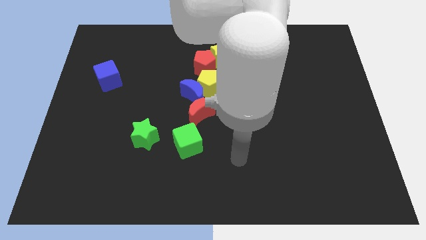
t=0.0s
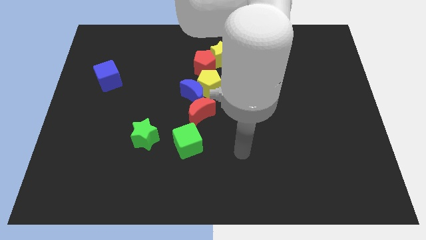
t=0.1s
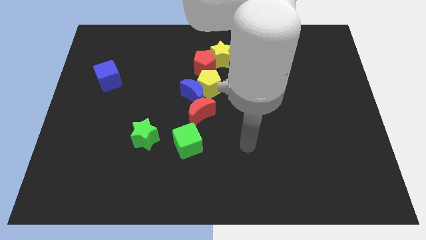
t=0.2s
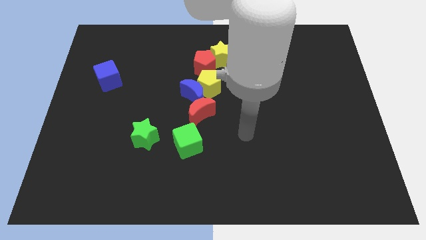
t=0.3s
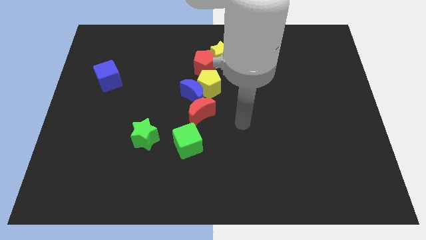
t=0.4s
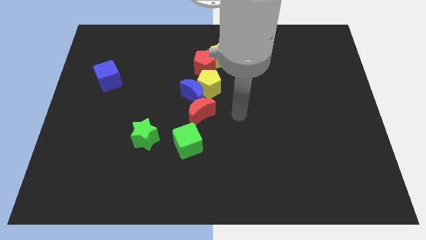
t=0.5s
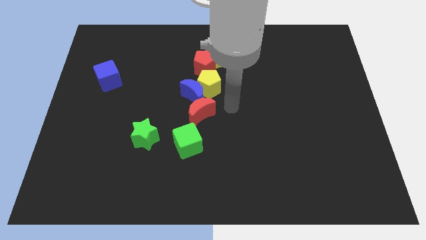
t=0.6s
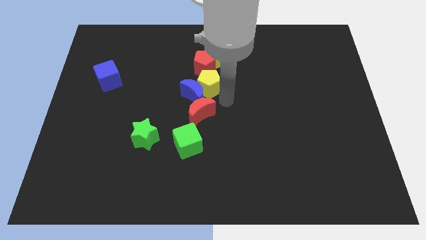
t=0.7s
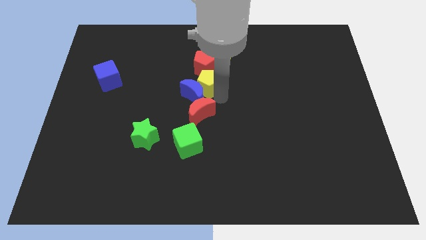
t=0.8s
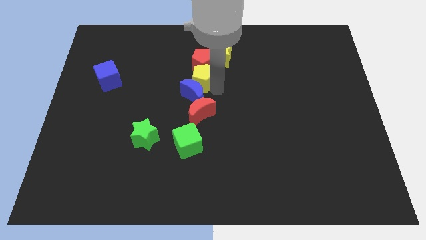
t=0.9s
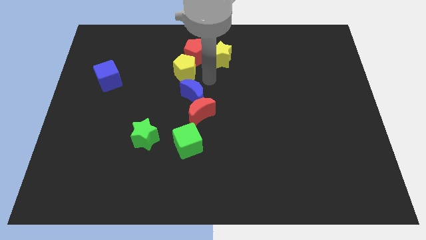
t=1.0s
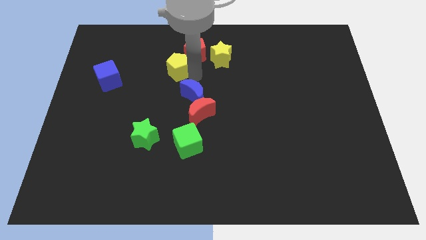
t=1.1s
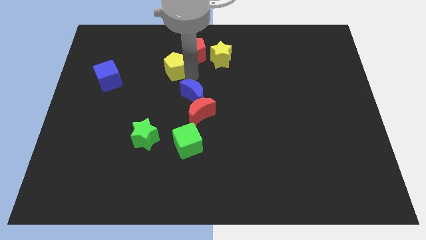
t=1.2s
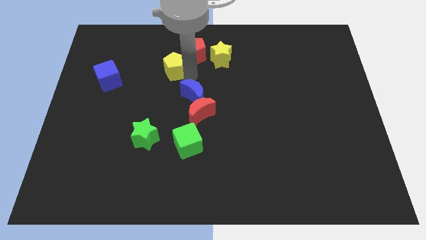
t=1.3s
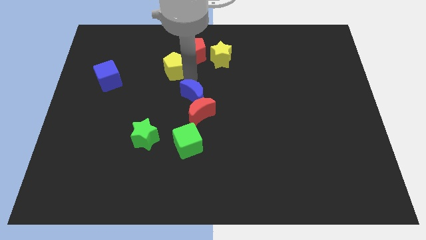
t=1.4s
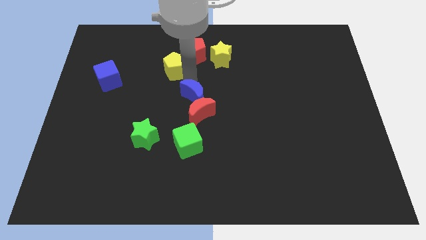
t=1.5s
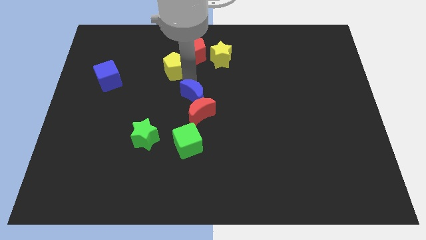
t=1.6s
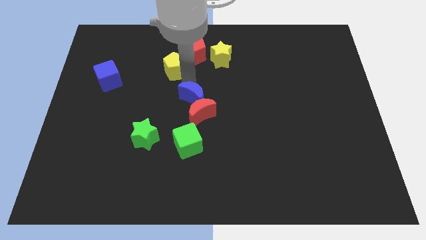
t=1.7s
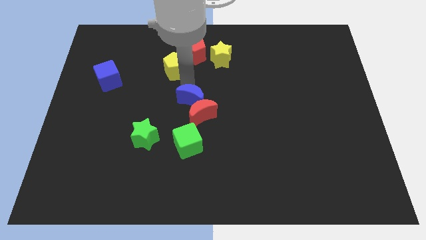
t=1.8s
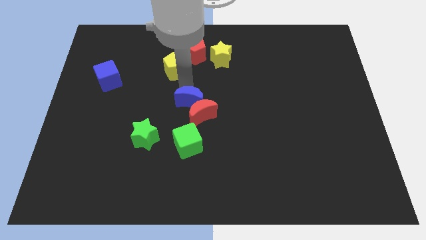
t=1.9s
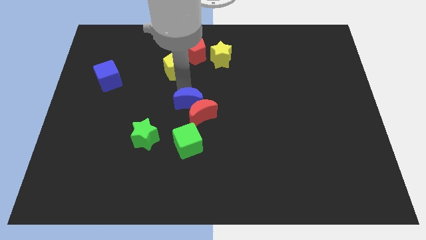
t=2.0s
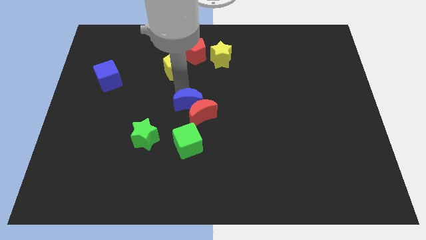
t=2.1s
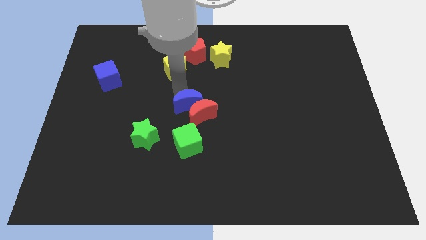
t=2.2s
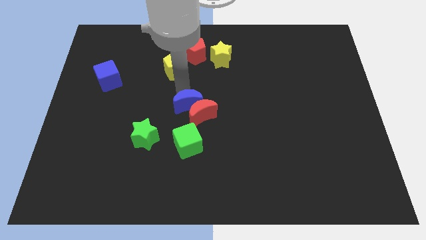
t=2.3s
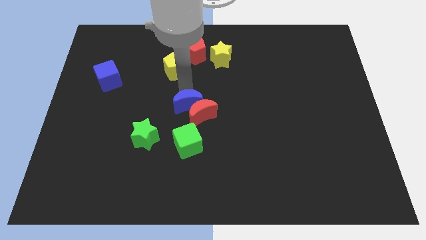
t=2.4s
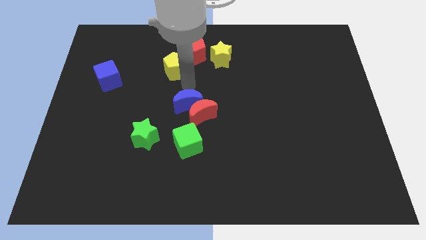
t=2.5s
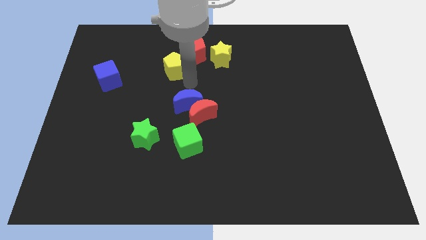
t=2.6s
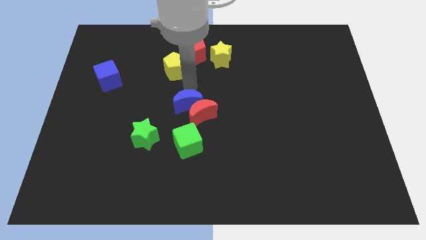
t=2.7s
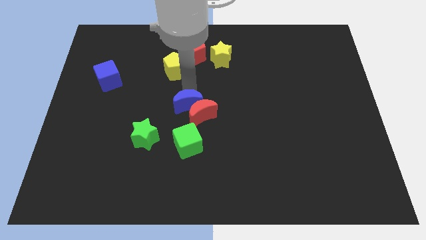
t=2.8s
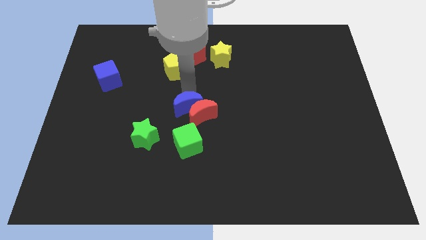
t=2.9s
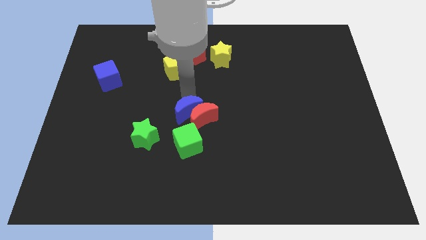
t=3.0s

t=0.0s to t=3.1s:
pull the blue moon apart from the clump

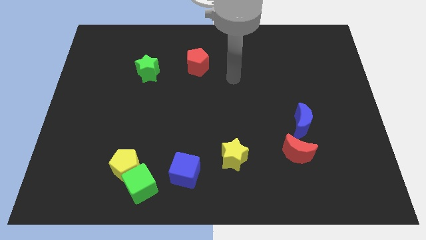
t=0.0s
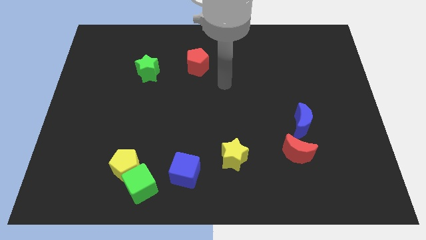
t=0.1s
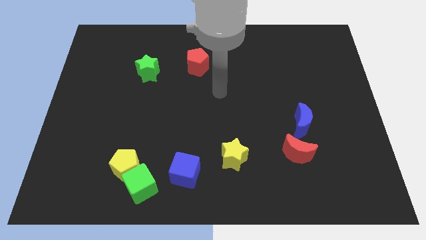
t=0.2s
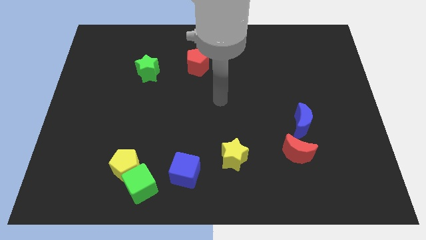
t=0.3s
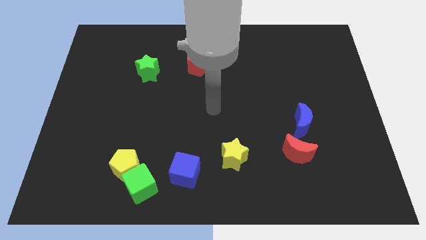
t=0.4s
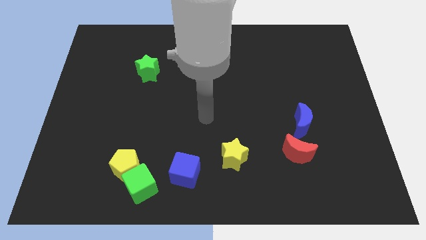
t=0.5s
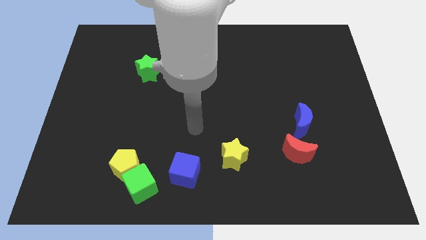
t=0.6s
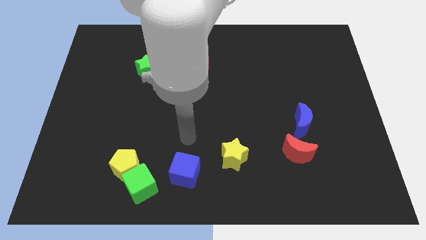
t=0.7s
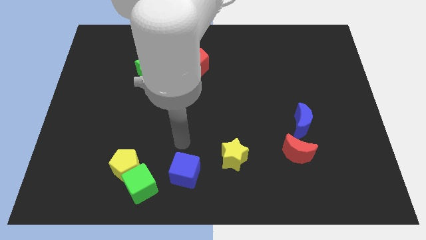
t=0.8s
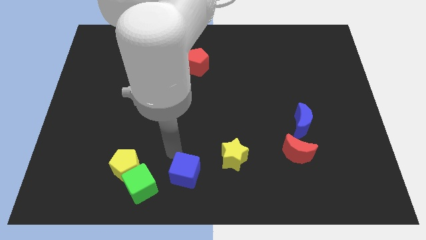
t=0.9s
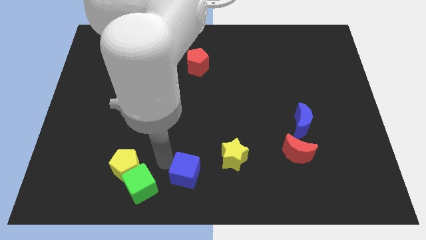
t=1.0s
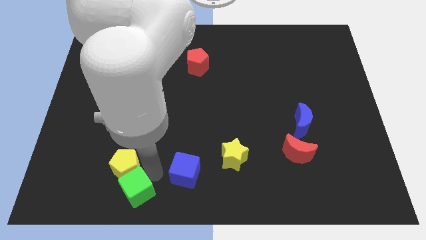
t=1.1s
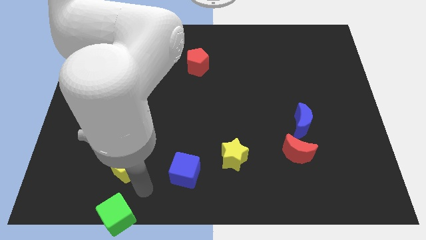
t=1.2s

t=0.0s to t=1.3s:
separate the yellow pentagon from the green cube

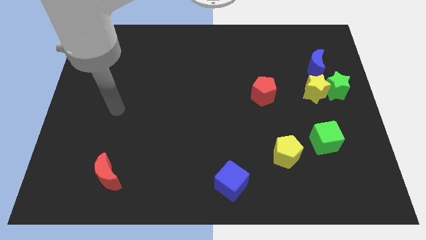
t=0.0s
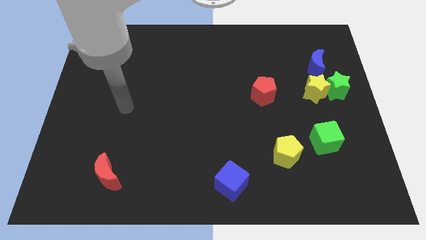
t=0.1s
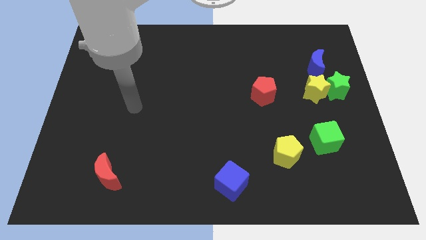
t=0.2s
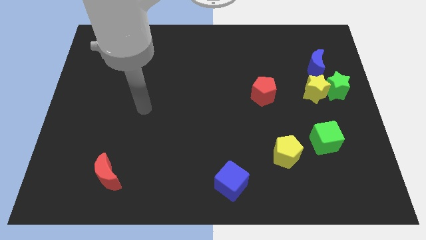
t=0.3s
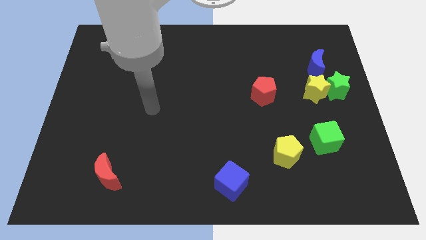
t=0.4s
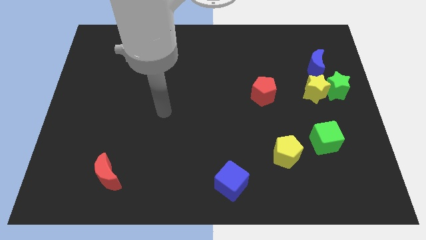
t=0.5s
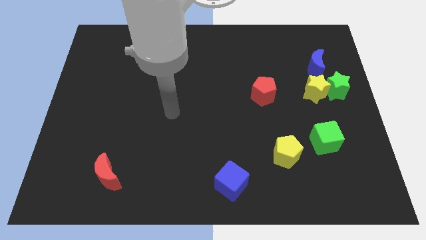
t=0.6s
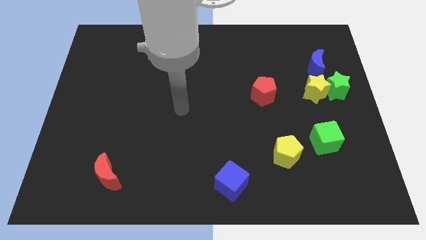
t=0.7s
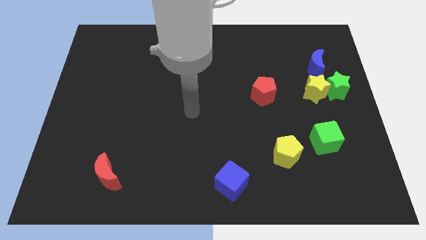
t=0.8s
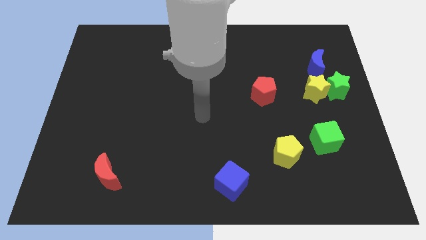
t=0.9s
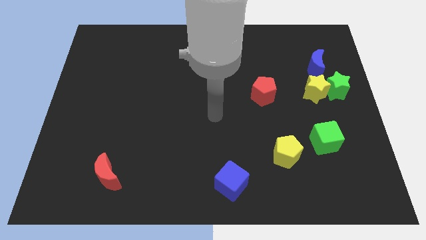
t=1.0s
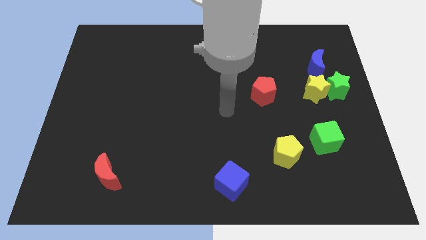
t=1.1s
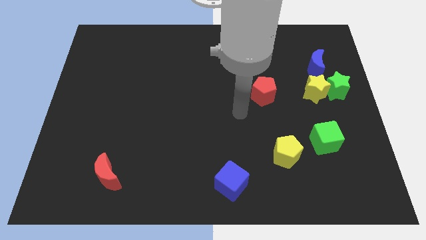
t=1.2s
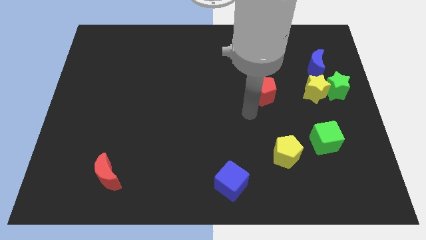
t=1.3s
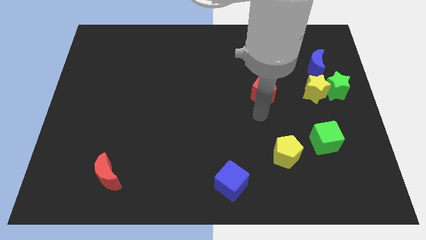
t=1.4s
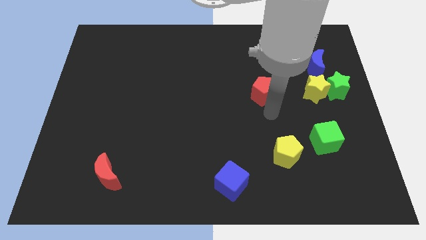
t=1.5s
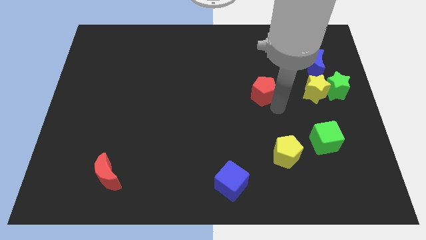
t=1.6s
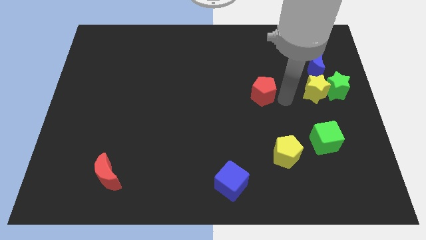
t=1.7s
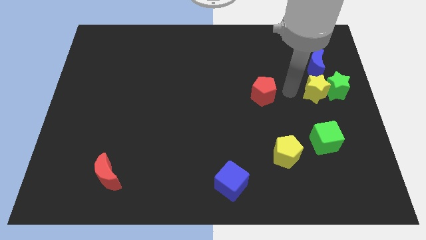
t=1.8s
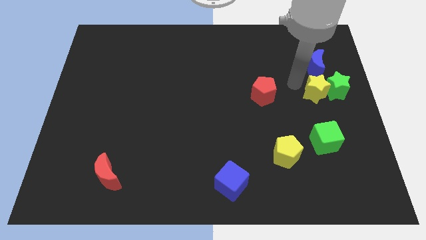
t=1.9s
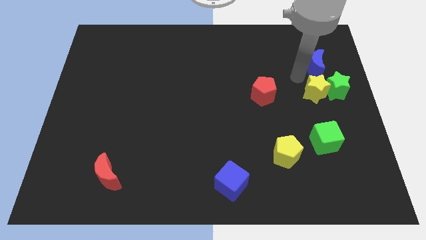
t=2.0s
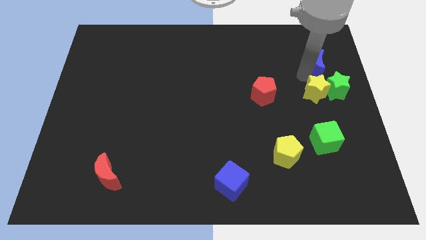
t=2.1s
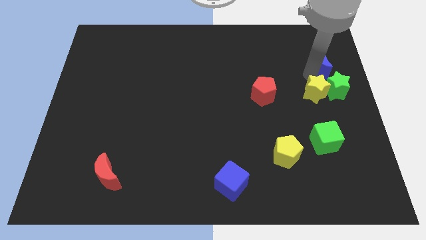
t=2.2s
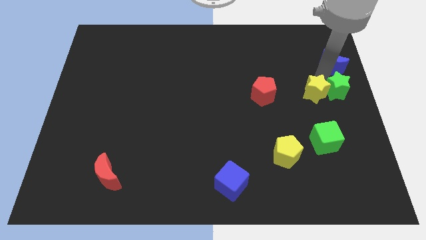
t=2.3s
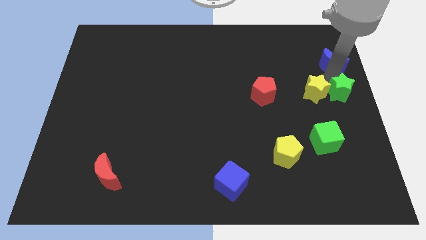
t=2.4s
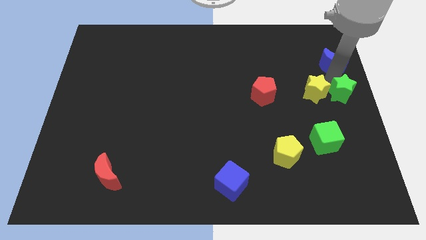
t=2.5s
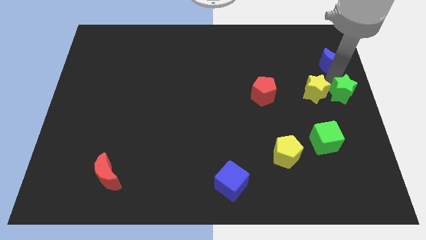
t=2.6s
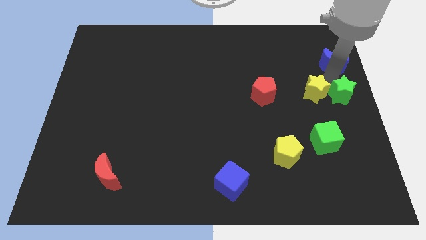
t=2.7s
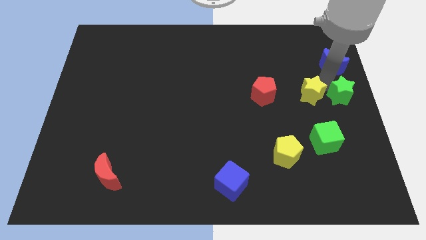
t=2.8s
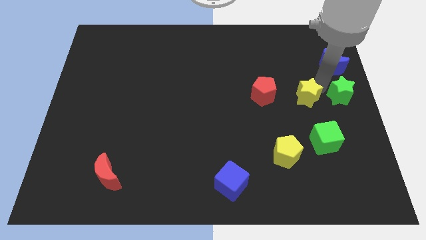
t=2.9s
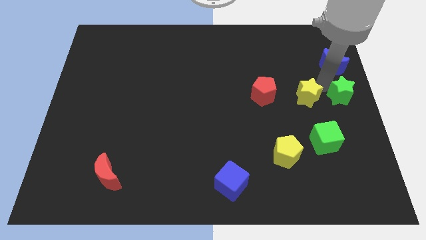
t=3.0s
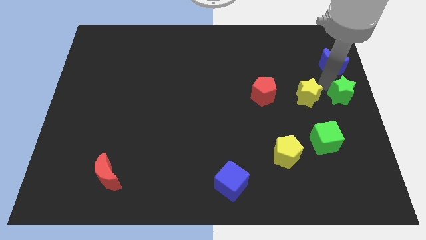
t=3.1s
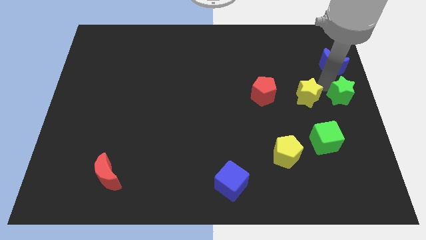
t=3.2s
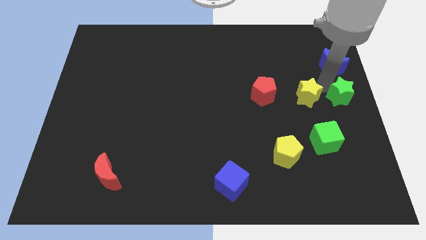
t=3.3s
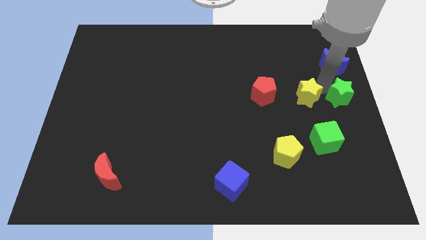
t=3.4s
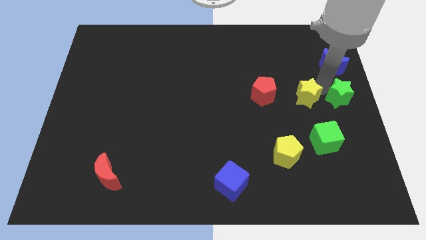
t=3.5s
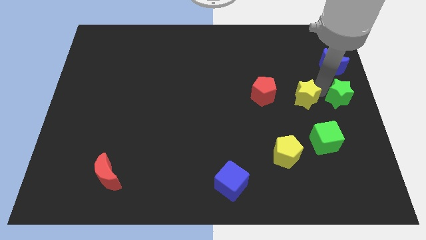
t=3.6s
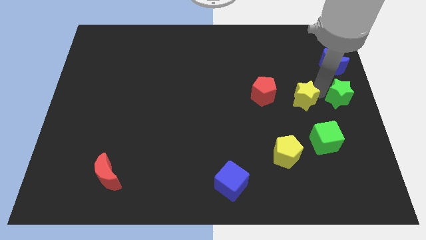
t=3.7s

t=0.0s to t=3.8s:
move the yellow star away from the green star and blue moon

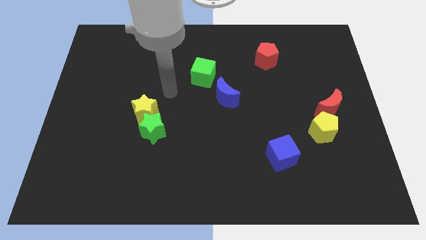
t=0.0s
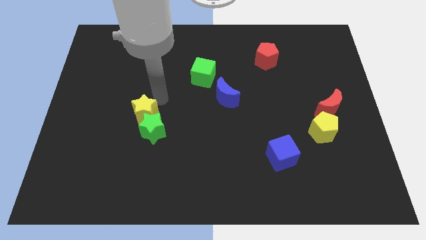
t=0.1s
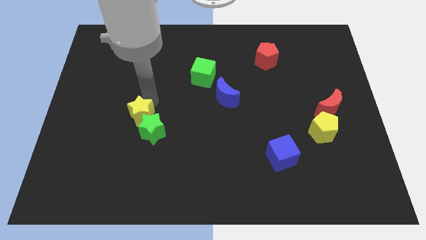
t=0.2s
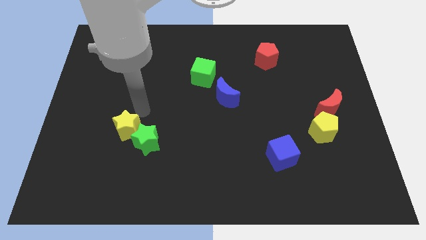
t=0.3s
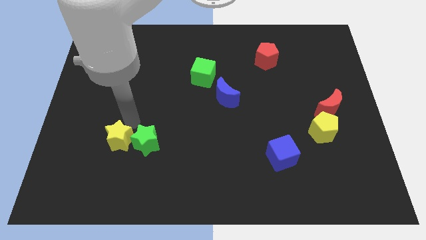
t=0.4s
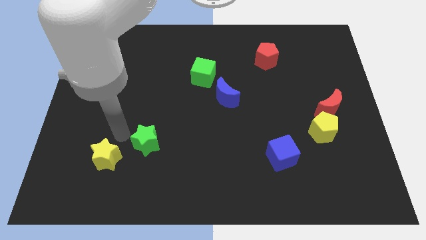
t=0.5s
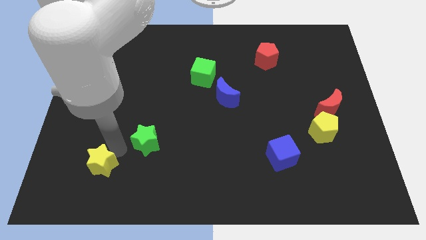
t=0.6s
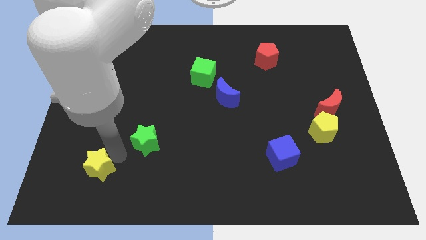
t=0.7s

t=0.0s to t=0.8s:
separate the green star from the yellow star

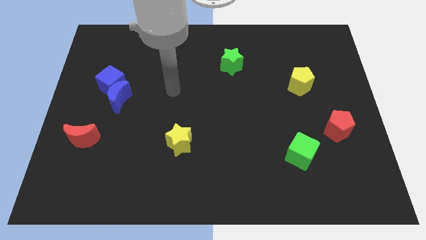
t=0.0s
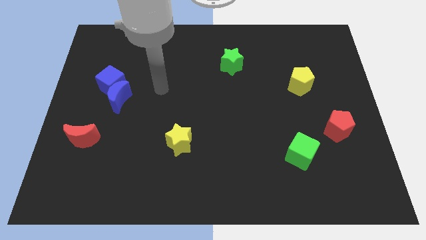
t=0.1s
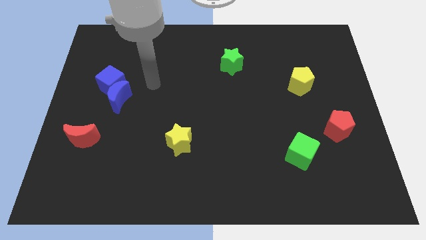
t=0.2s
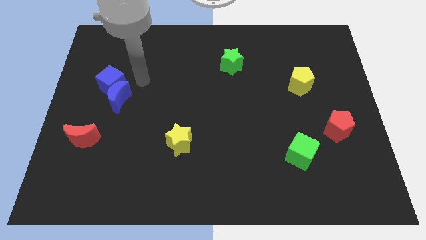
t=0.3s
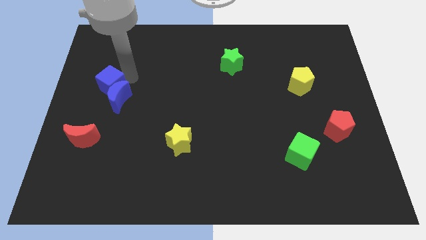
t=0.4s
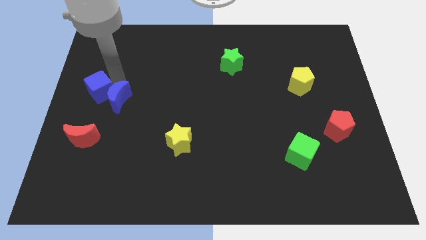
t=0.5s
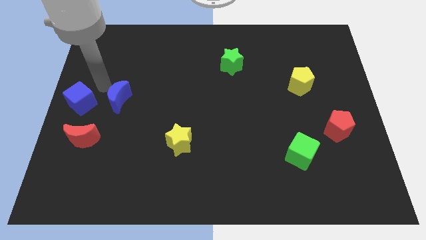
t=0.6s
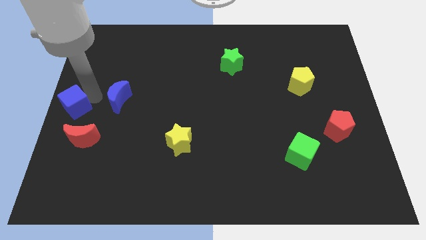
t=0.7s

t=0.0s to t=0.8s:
move the blue moon away from the blue cube
